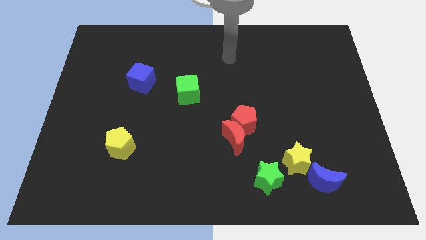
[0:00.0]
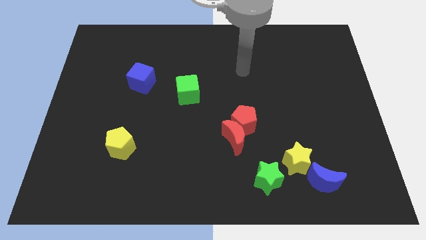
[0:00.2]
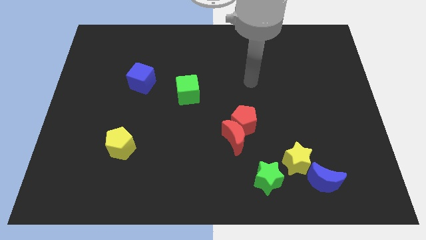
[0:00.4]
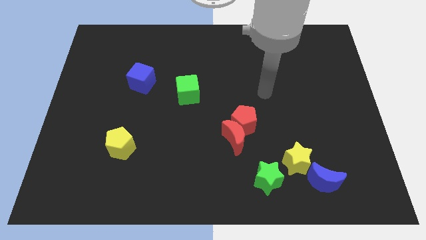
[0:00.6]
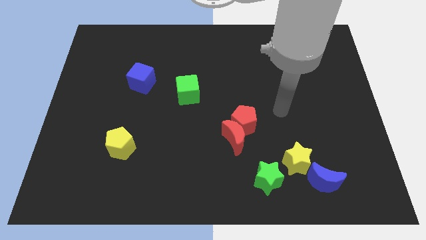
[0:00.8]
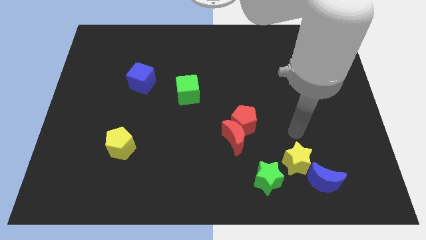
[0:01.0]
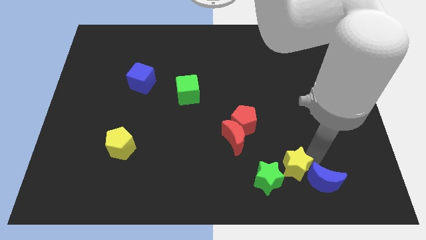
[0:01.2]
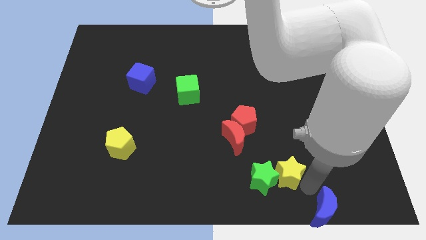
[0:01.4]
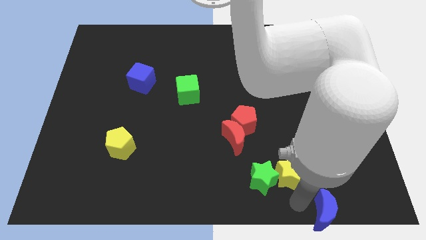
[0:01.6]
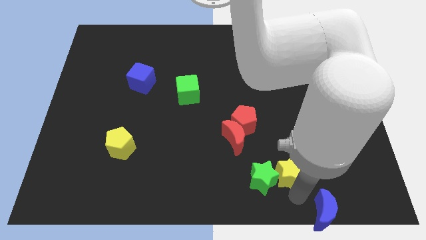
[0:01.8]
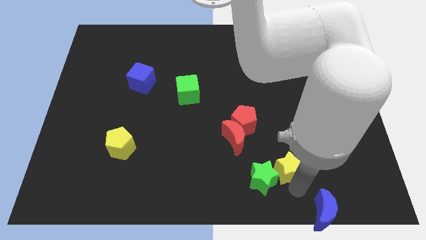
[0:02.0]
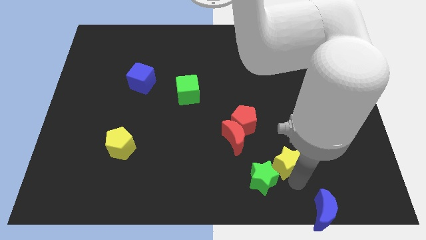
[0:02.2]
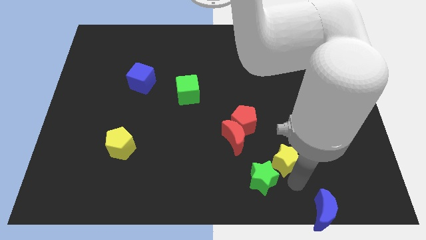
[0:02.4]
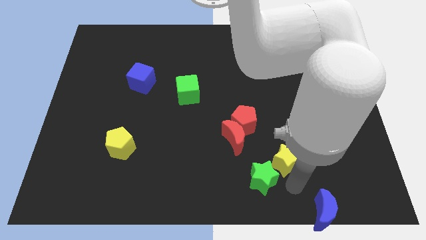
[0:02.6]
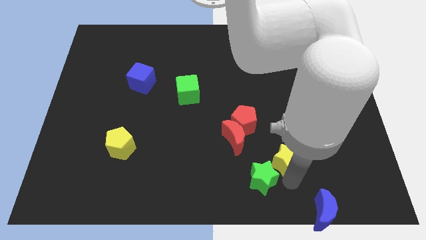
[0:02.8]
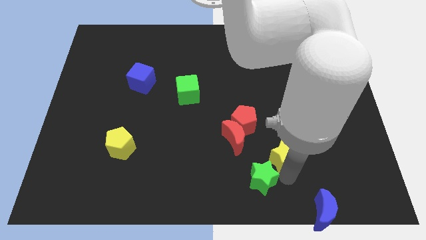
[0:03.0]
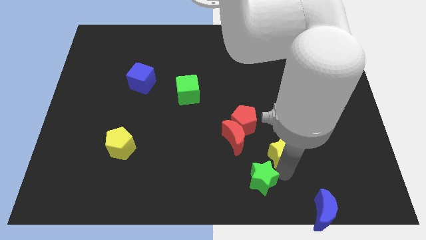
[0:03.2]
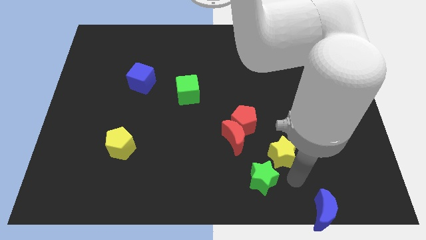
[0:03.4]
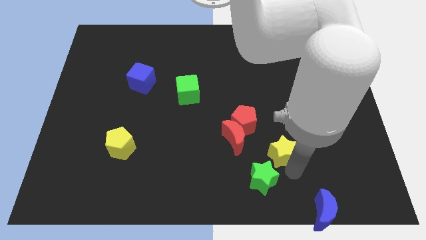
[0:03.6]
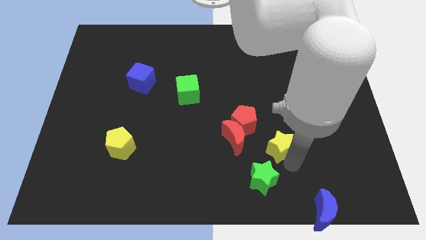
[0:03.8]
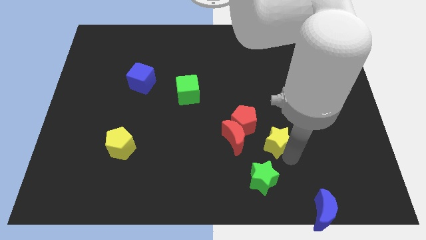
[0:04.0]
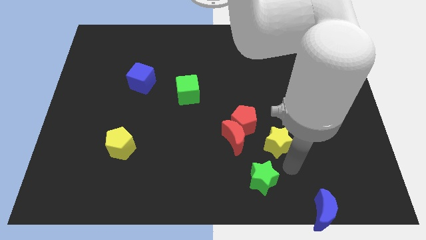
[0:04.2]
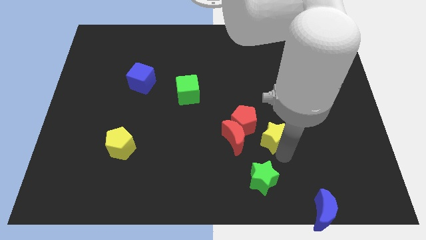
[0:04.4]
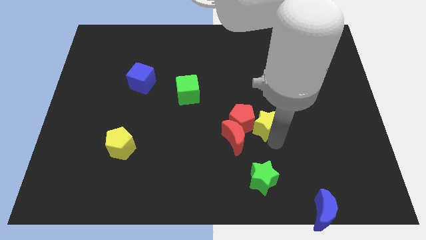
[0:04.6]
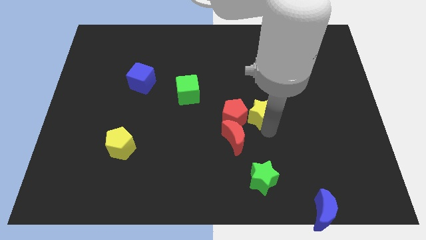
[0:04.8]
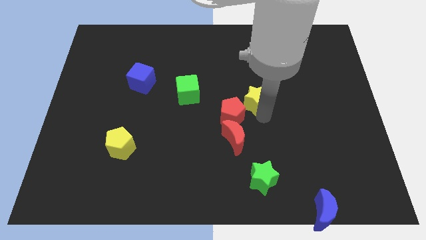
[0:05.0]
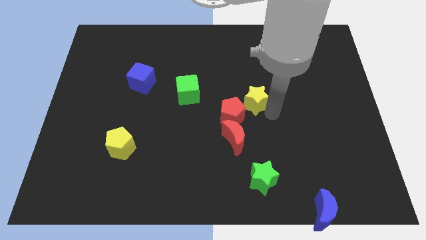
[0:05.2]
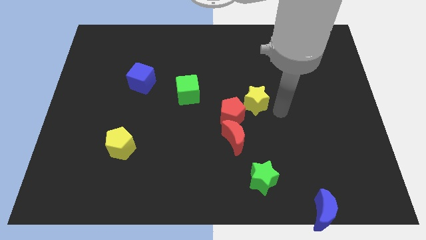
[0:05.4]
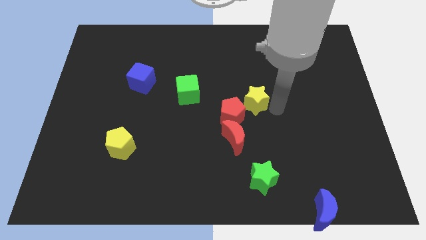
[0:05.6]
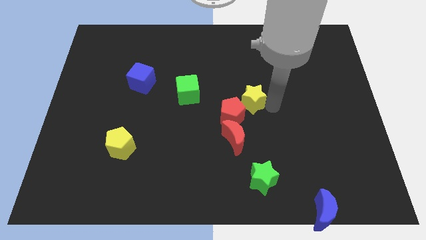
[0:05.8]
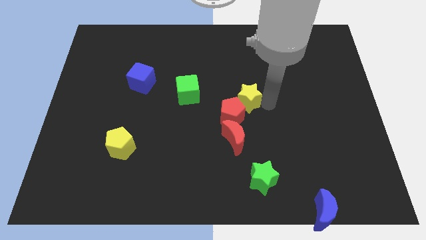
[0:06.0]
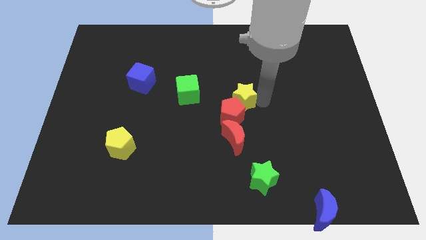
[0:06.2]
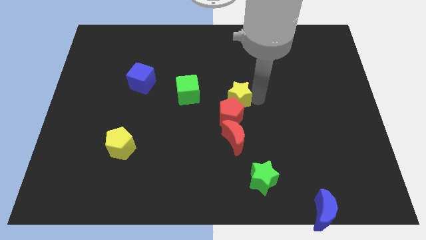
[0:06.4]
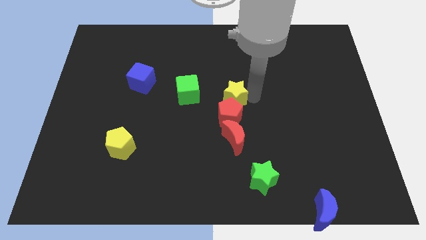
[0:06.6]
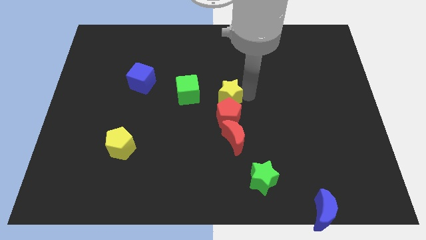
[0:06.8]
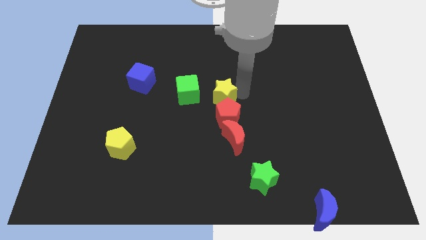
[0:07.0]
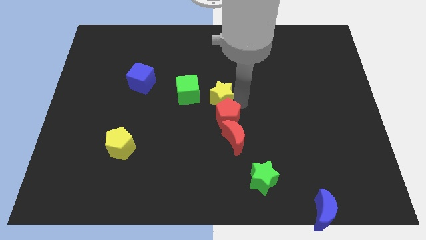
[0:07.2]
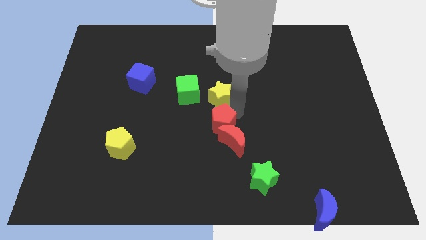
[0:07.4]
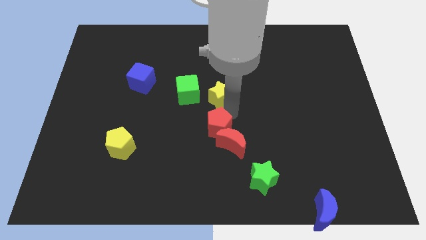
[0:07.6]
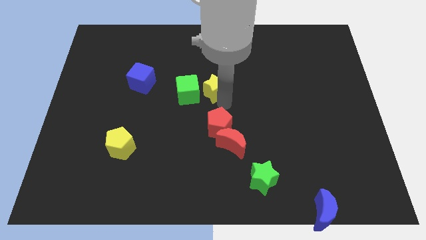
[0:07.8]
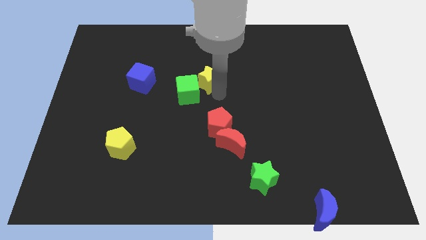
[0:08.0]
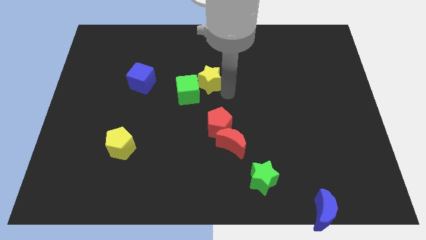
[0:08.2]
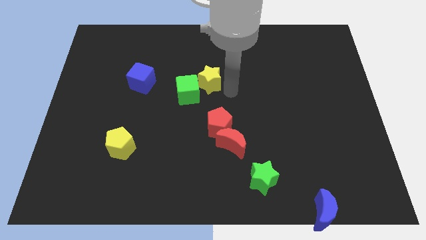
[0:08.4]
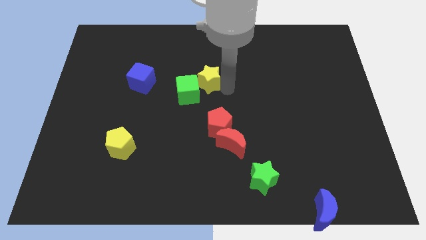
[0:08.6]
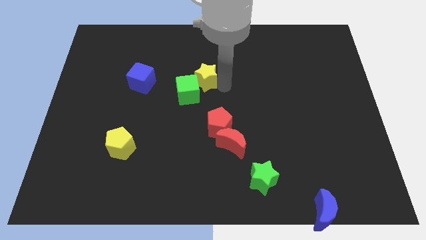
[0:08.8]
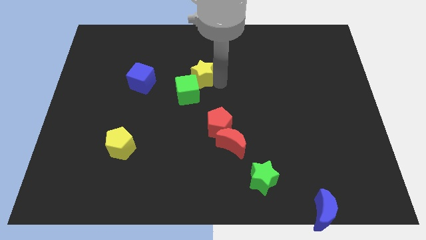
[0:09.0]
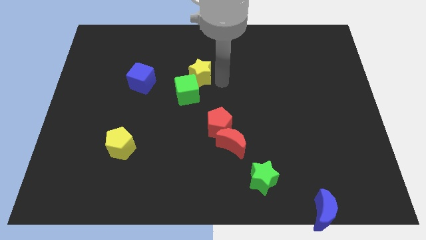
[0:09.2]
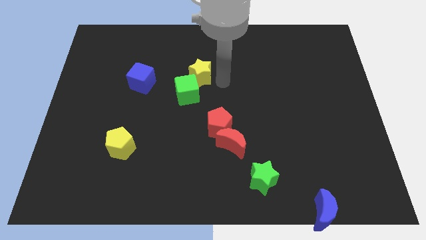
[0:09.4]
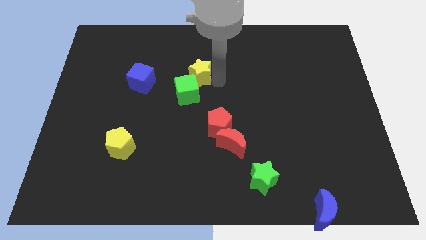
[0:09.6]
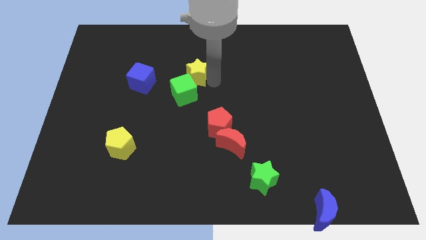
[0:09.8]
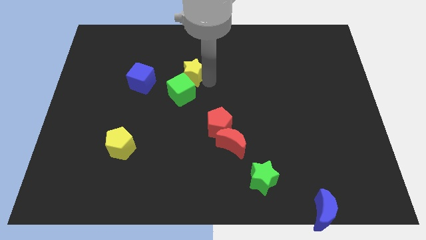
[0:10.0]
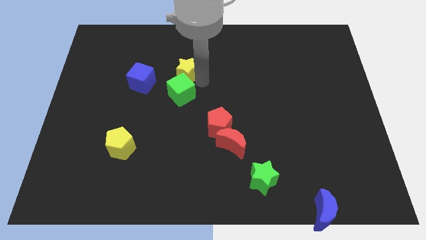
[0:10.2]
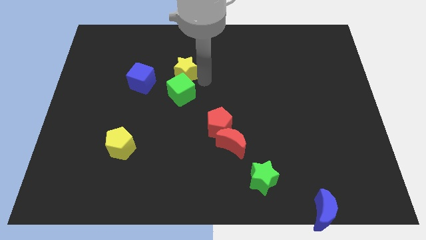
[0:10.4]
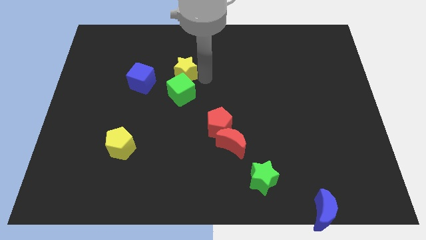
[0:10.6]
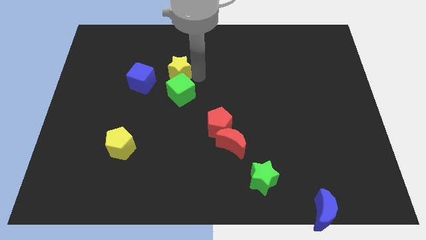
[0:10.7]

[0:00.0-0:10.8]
move the yellow star diagonally up and to the right of the blue cube
